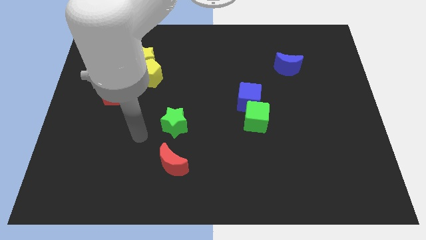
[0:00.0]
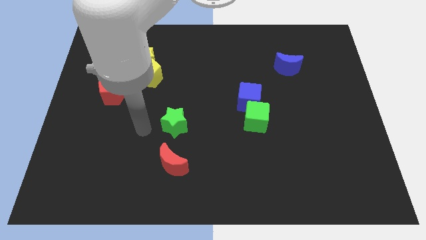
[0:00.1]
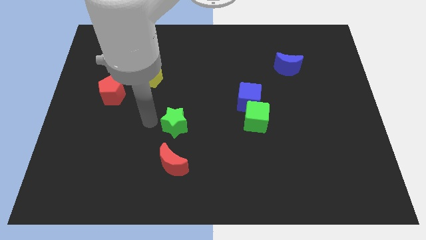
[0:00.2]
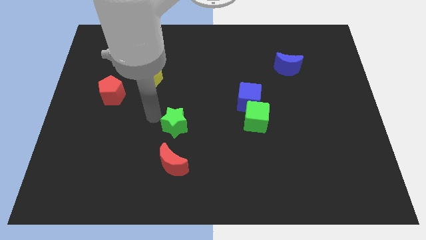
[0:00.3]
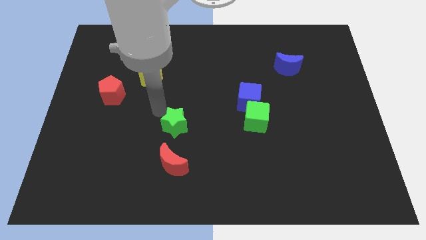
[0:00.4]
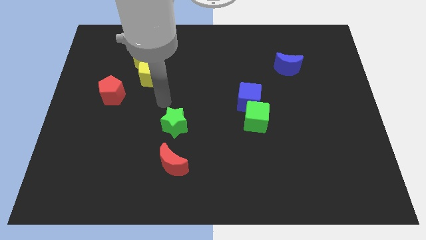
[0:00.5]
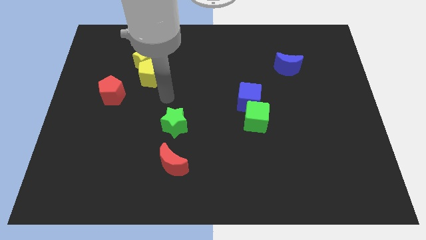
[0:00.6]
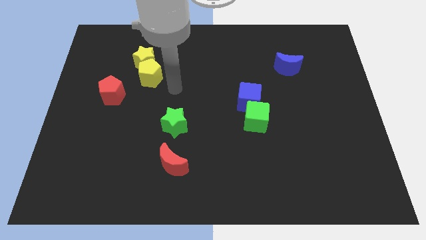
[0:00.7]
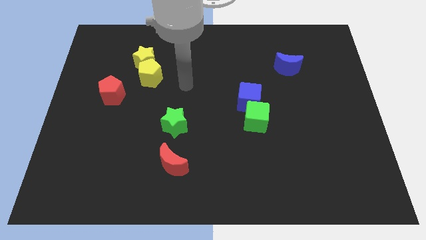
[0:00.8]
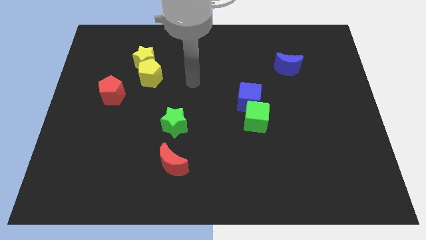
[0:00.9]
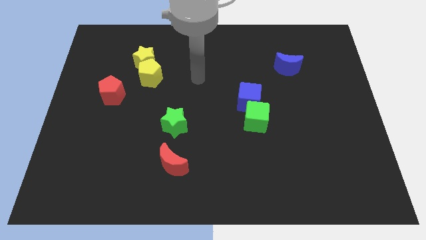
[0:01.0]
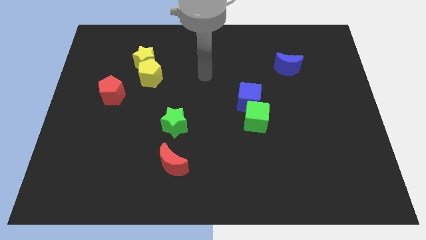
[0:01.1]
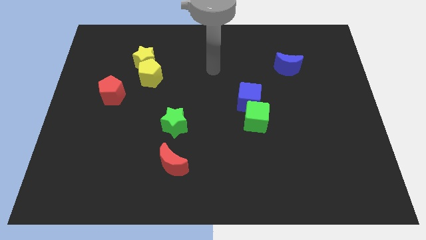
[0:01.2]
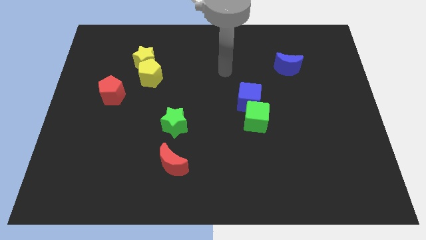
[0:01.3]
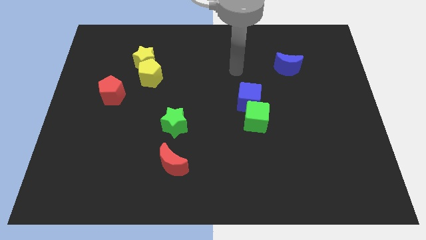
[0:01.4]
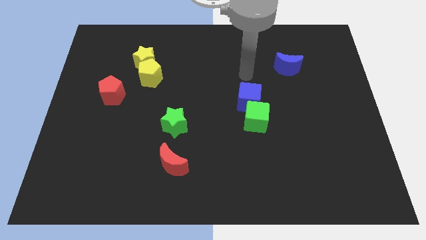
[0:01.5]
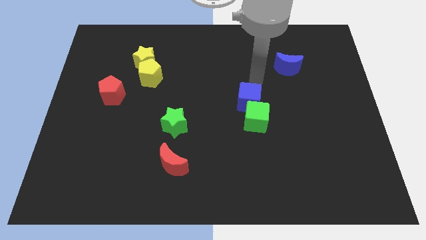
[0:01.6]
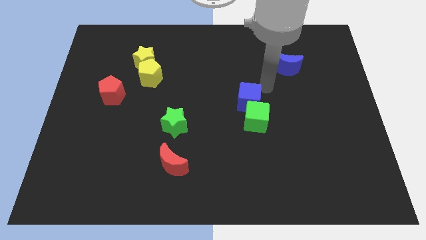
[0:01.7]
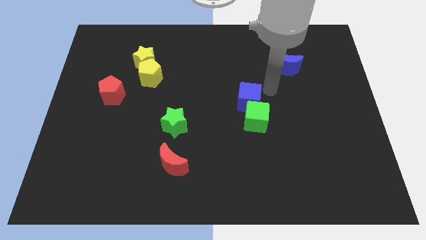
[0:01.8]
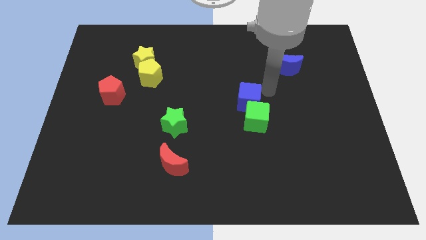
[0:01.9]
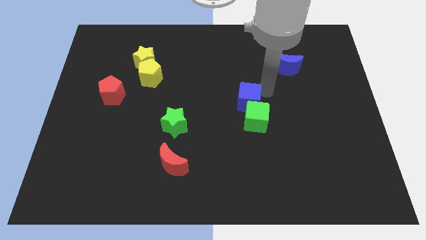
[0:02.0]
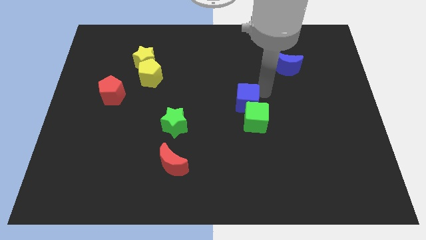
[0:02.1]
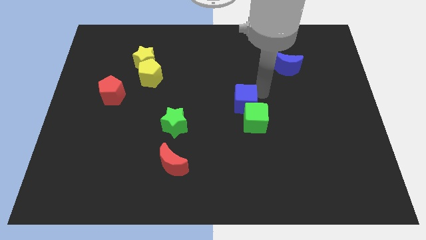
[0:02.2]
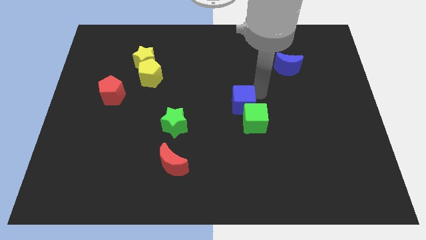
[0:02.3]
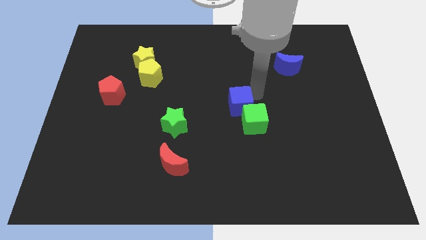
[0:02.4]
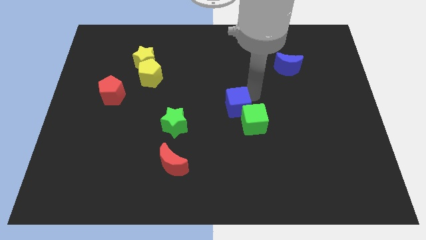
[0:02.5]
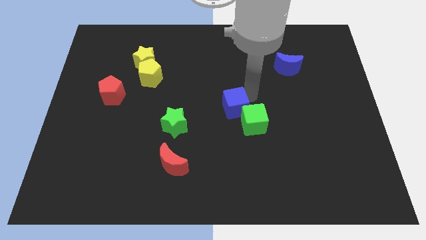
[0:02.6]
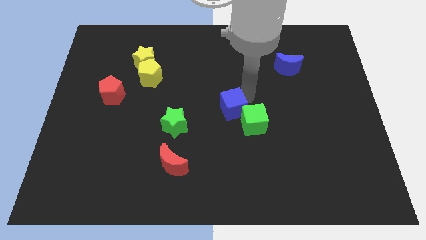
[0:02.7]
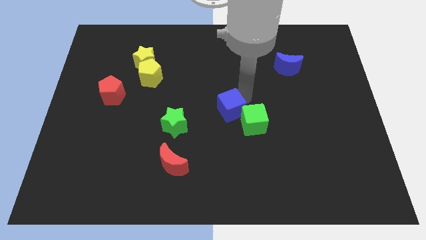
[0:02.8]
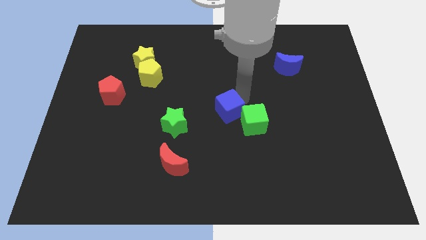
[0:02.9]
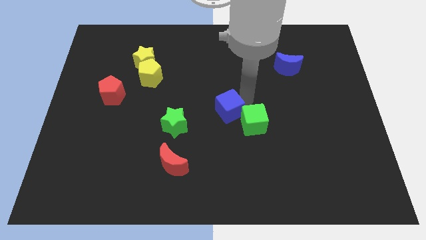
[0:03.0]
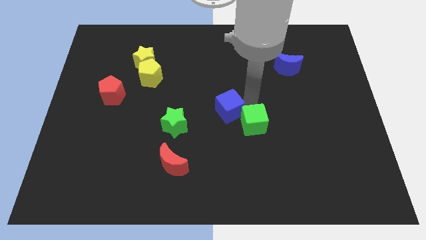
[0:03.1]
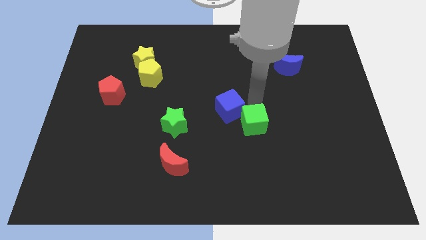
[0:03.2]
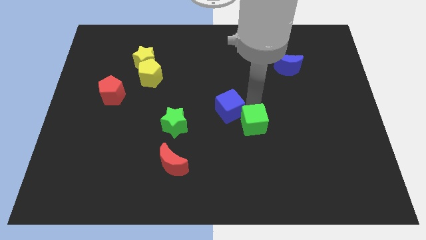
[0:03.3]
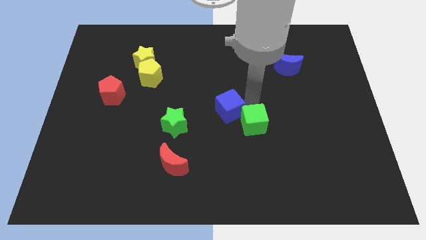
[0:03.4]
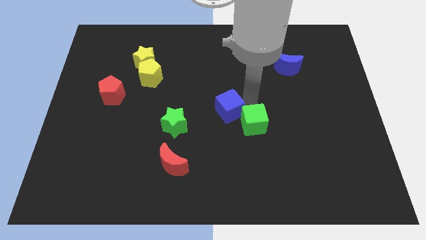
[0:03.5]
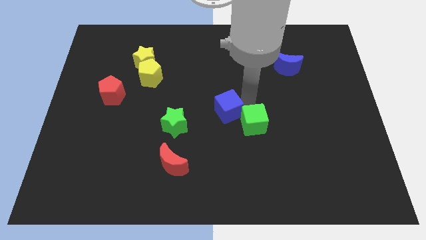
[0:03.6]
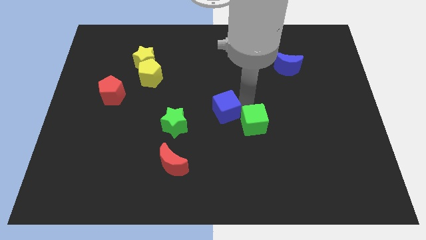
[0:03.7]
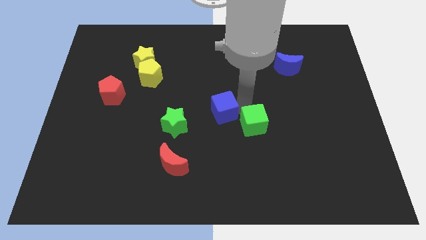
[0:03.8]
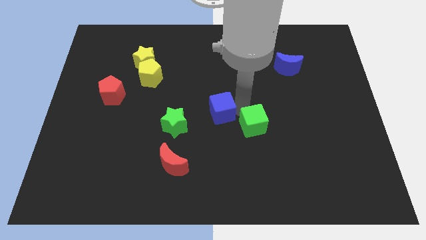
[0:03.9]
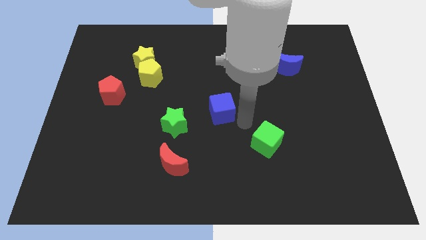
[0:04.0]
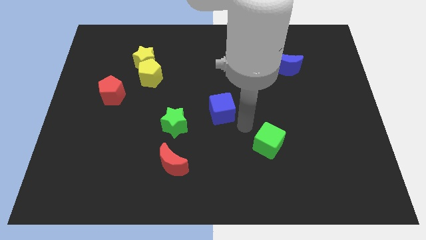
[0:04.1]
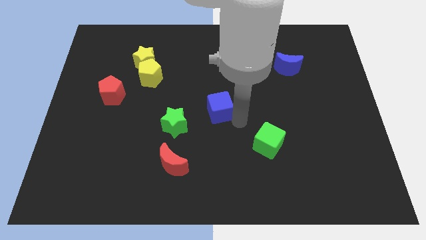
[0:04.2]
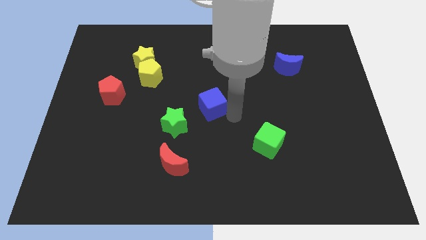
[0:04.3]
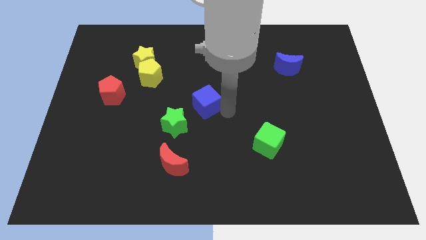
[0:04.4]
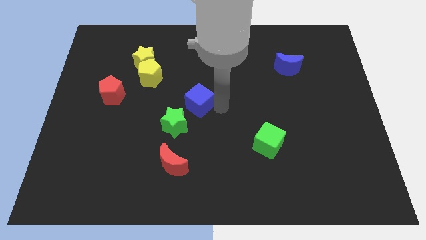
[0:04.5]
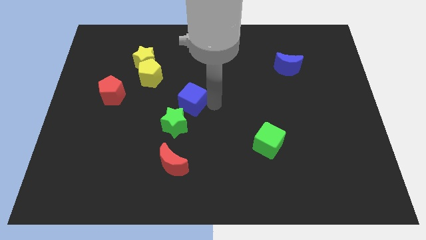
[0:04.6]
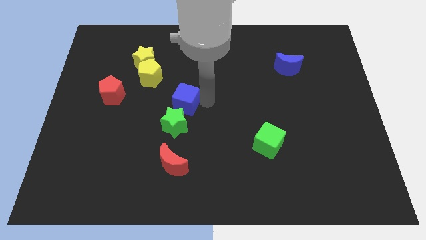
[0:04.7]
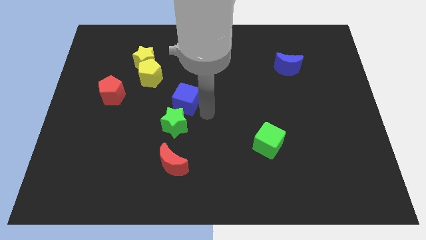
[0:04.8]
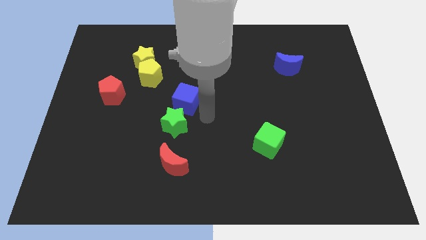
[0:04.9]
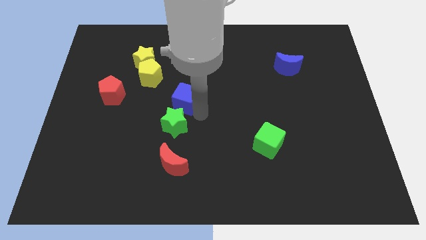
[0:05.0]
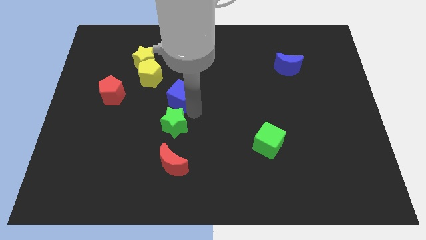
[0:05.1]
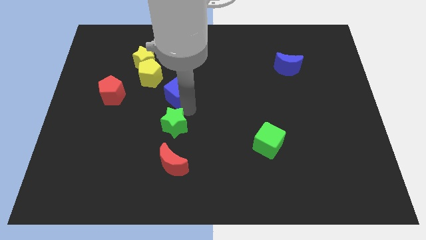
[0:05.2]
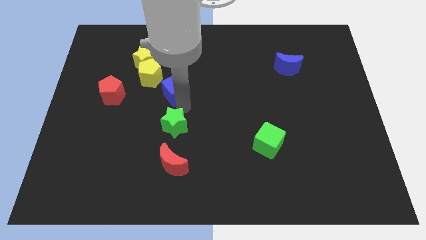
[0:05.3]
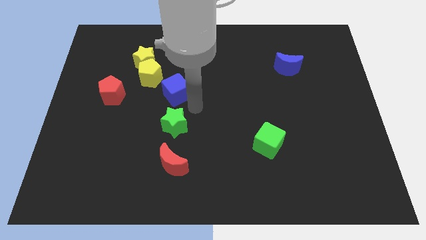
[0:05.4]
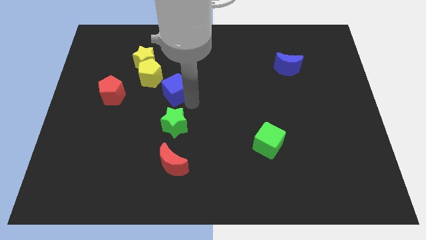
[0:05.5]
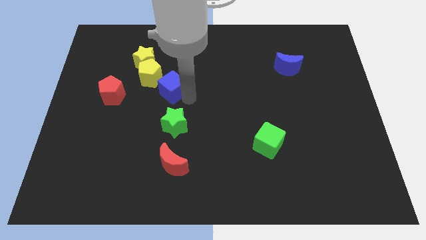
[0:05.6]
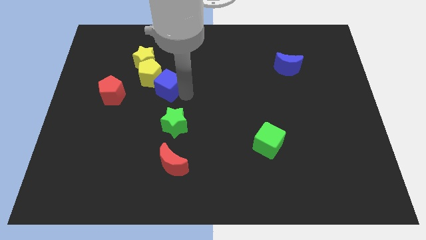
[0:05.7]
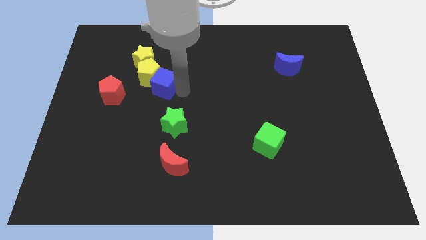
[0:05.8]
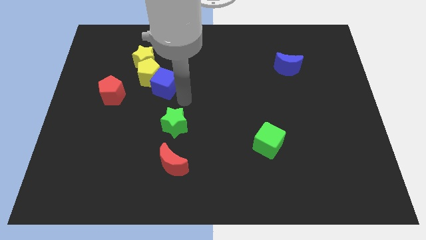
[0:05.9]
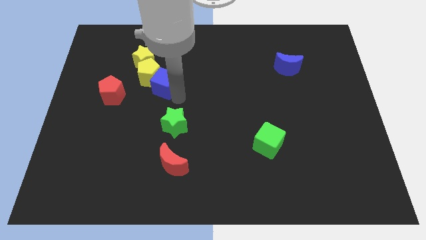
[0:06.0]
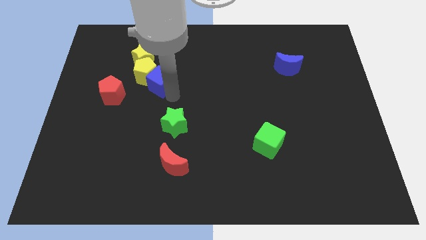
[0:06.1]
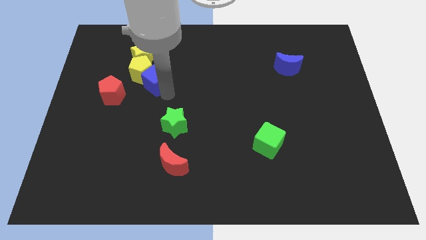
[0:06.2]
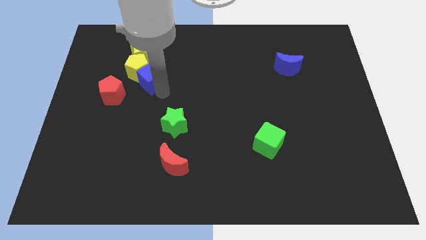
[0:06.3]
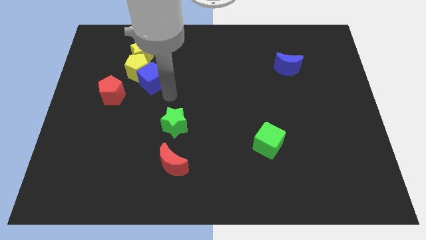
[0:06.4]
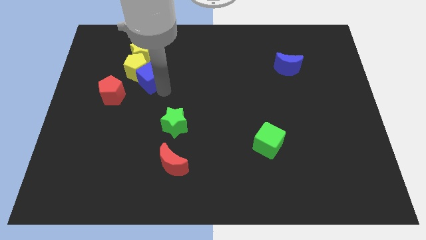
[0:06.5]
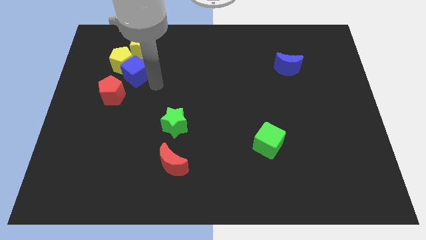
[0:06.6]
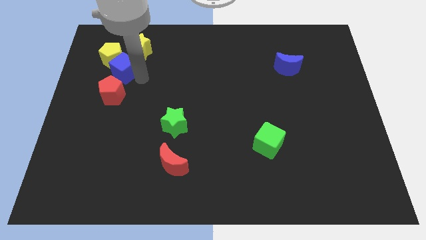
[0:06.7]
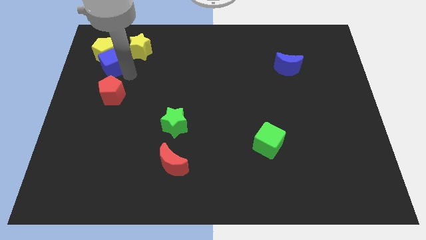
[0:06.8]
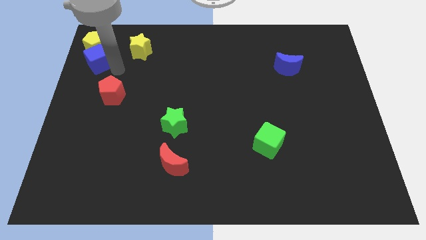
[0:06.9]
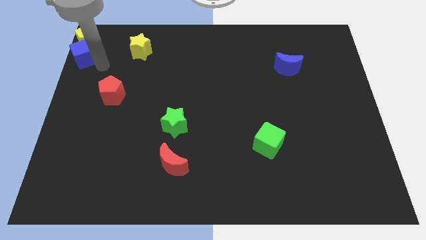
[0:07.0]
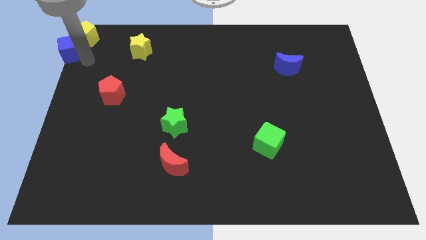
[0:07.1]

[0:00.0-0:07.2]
move the blue cube to the upper left corner
